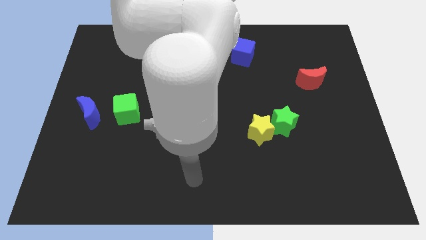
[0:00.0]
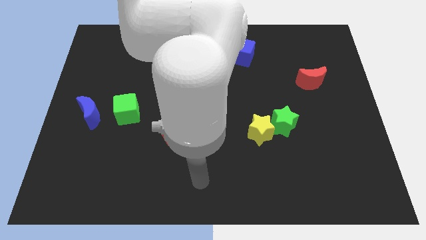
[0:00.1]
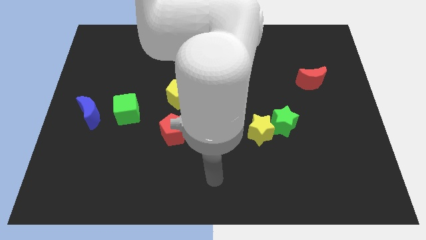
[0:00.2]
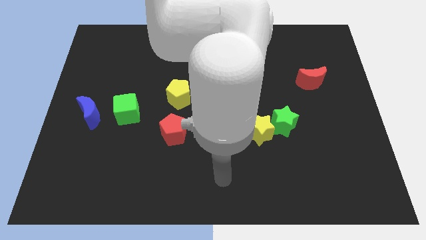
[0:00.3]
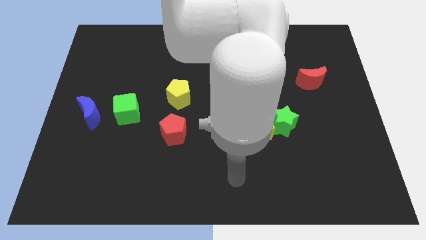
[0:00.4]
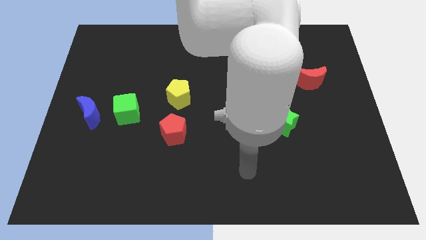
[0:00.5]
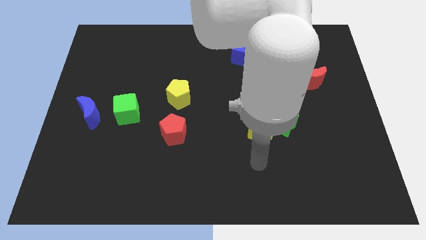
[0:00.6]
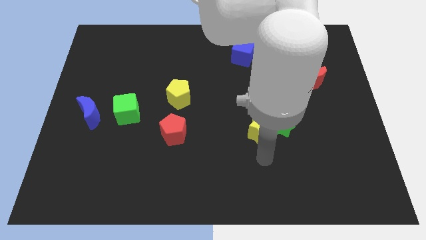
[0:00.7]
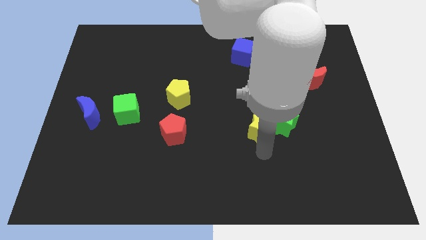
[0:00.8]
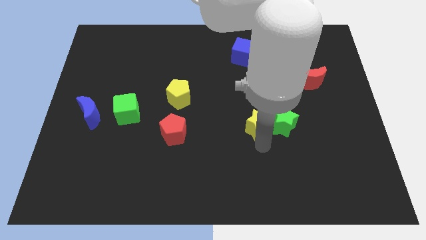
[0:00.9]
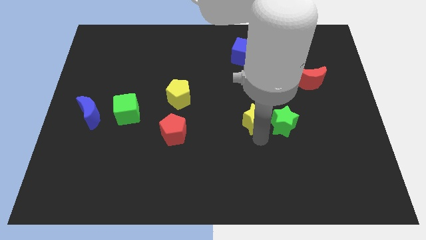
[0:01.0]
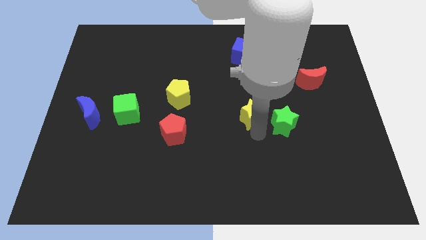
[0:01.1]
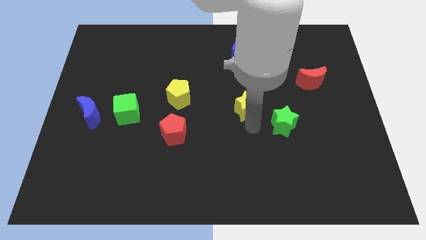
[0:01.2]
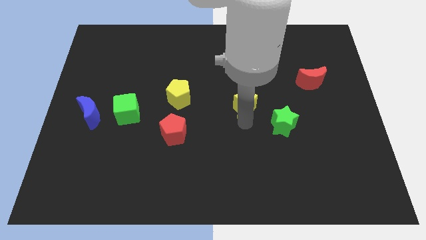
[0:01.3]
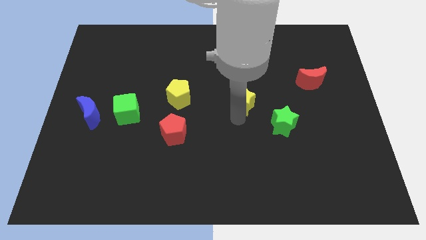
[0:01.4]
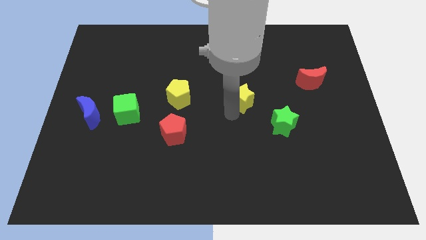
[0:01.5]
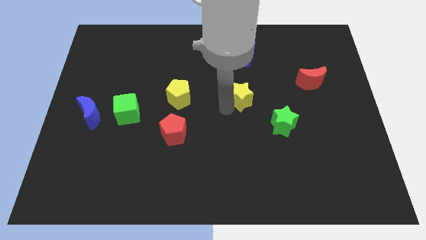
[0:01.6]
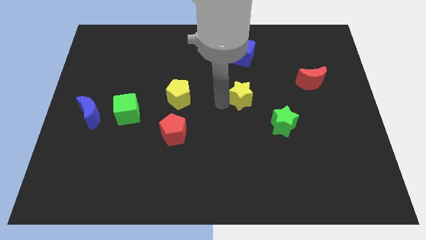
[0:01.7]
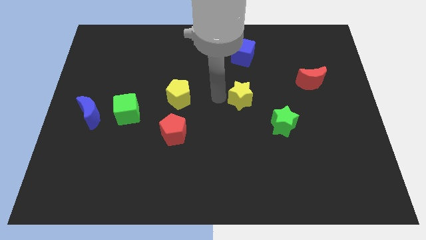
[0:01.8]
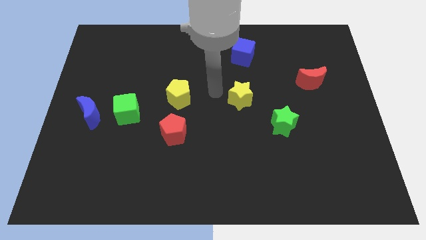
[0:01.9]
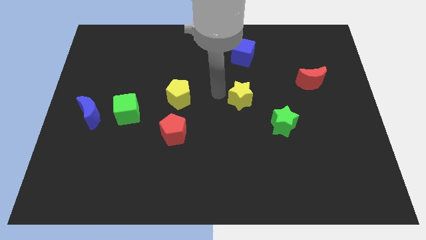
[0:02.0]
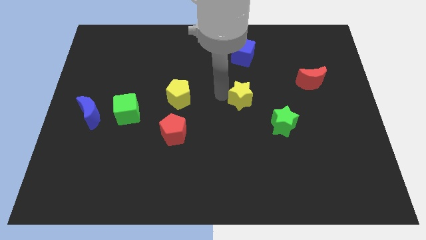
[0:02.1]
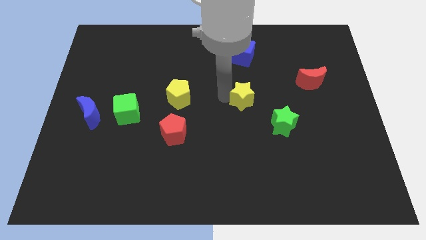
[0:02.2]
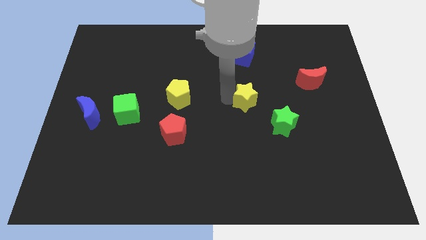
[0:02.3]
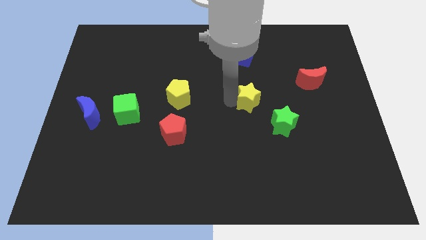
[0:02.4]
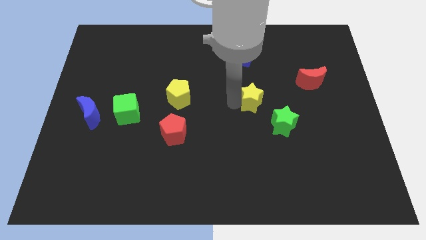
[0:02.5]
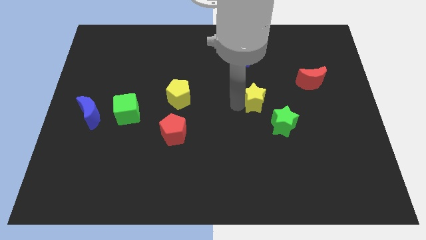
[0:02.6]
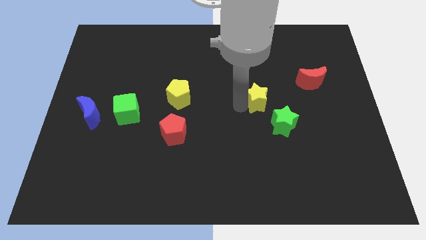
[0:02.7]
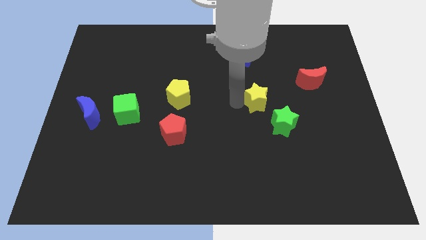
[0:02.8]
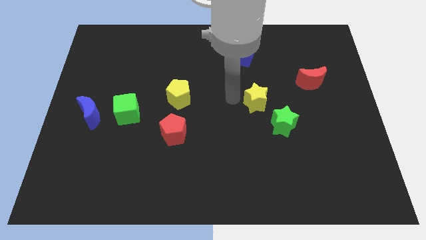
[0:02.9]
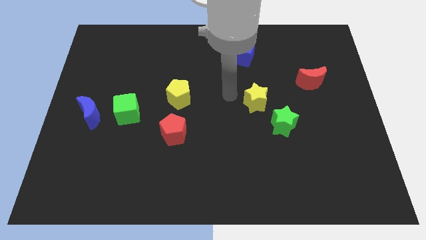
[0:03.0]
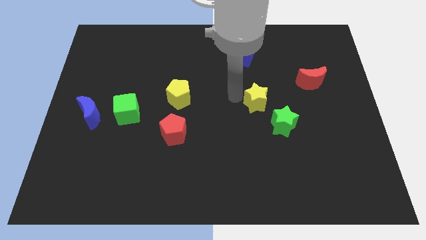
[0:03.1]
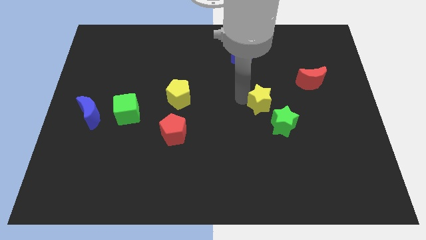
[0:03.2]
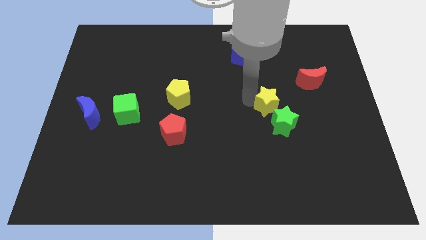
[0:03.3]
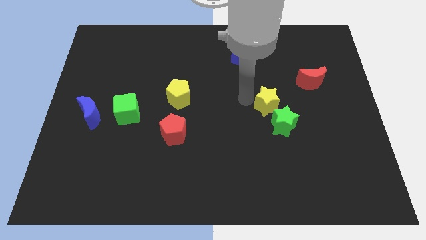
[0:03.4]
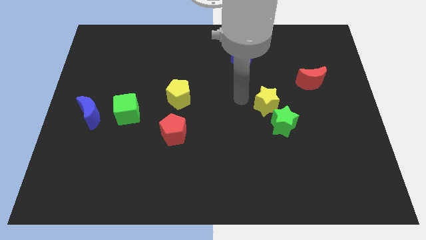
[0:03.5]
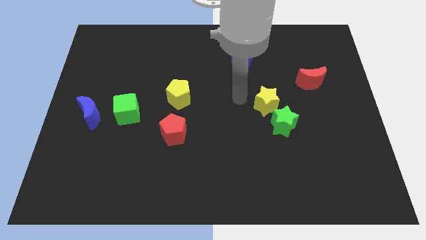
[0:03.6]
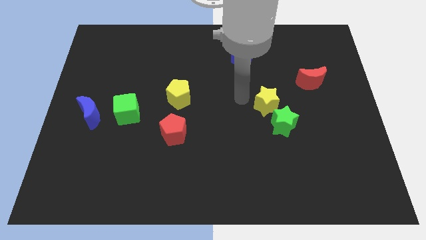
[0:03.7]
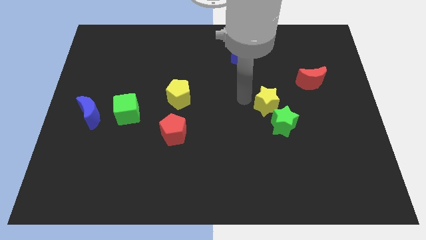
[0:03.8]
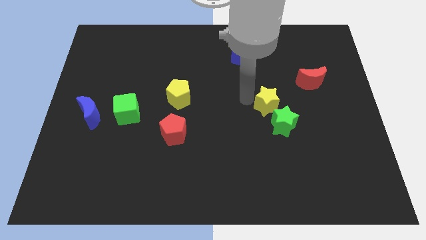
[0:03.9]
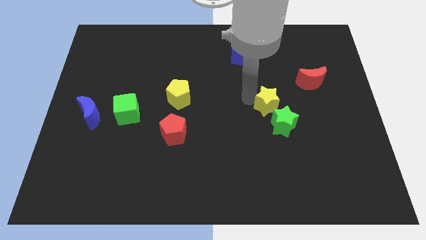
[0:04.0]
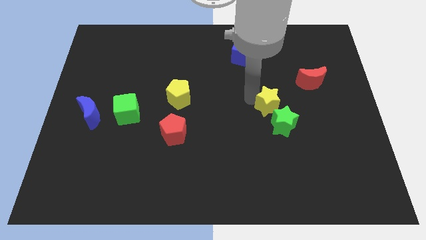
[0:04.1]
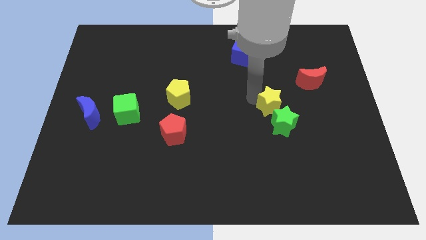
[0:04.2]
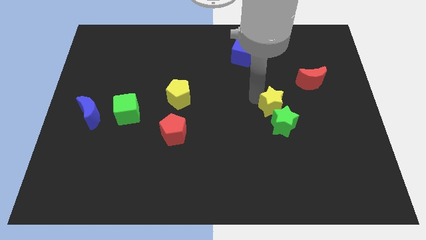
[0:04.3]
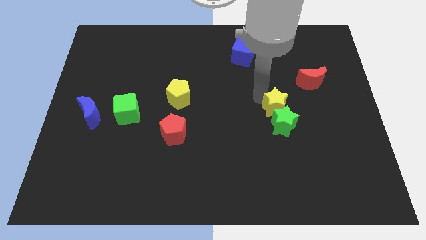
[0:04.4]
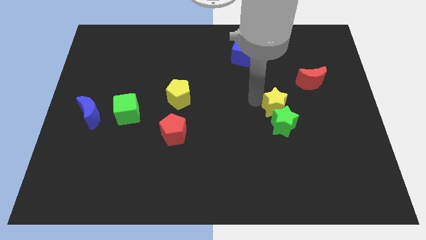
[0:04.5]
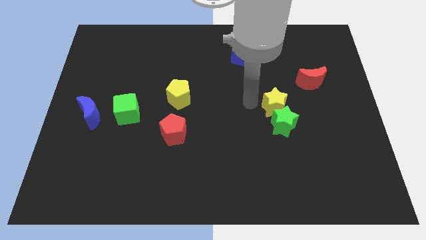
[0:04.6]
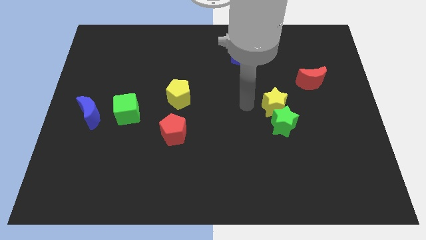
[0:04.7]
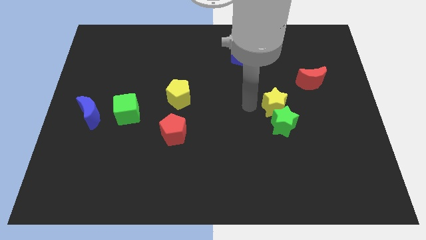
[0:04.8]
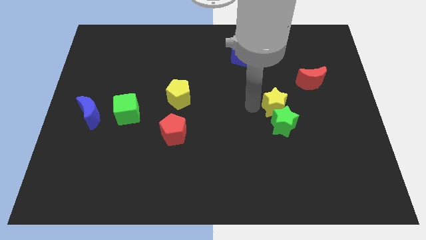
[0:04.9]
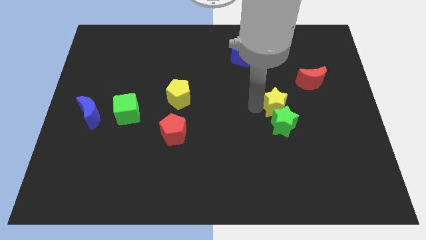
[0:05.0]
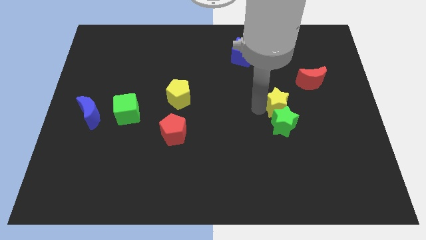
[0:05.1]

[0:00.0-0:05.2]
push the yellow star to the top right of the green star

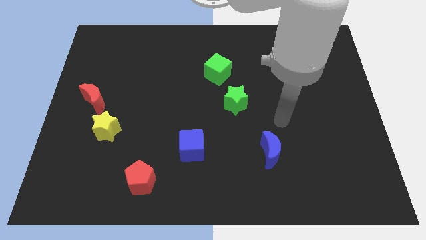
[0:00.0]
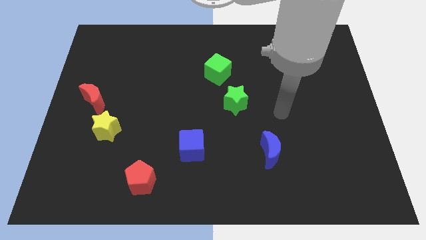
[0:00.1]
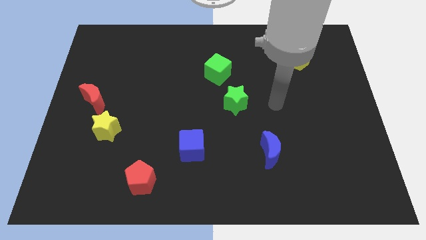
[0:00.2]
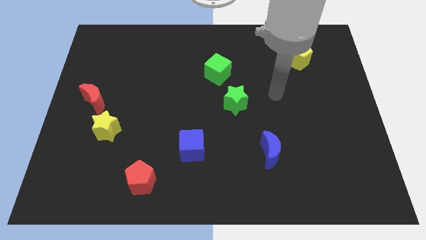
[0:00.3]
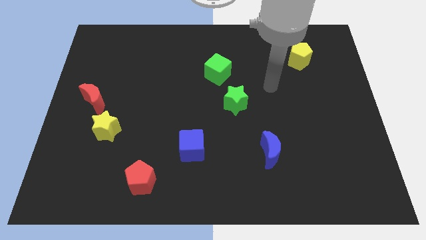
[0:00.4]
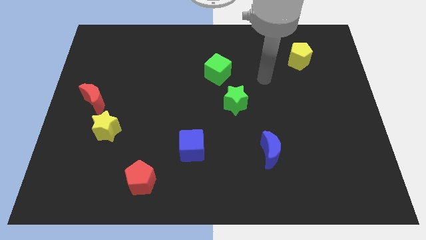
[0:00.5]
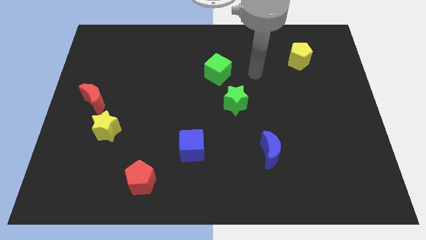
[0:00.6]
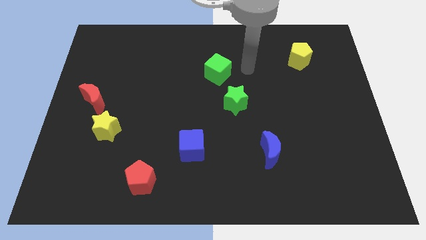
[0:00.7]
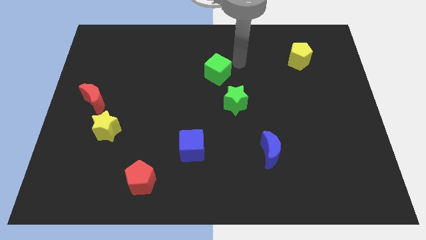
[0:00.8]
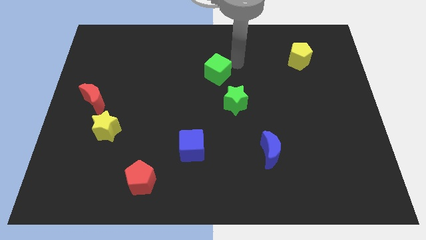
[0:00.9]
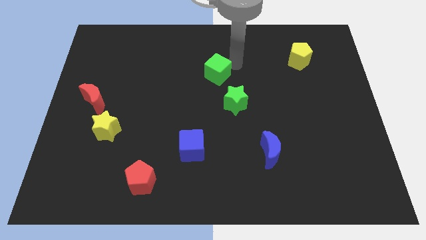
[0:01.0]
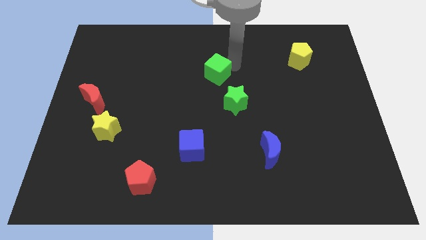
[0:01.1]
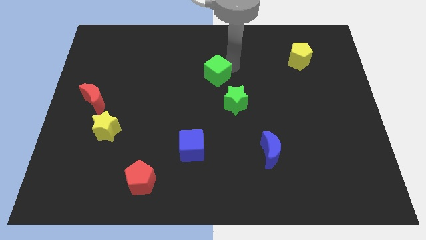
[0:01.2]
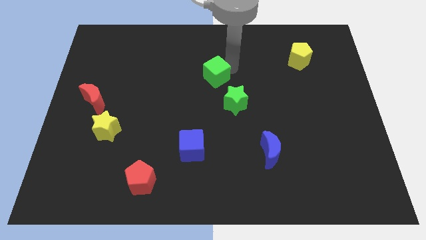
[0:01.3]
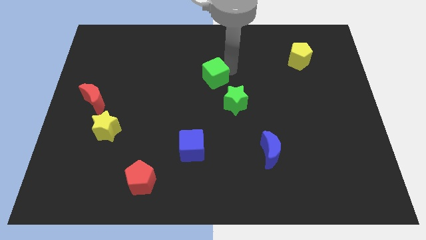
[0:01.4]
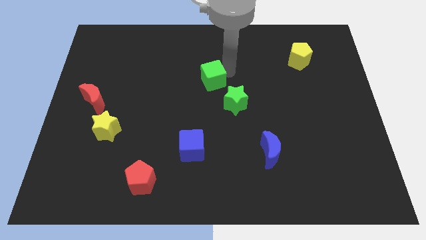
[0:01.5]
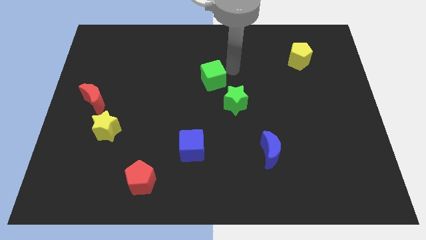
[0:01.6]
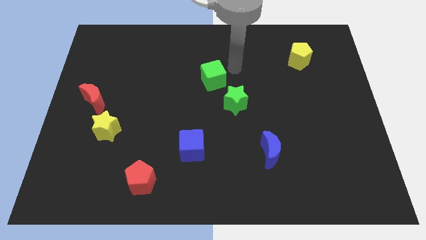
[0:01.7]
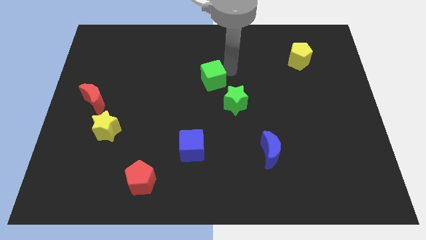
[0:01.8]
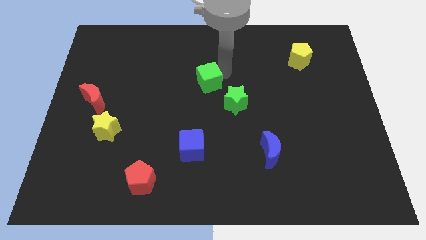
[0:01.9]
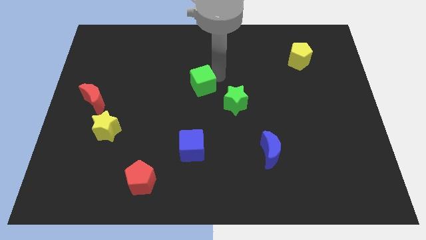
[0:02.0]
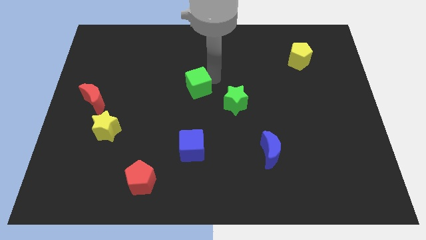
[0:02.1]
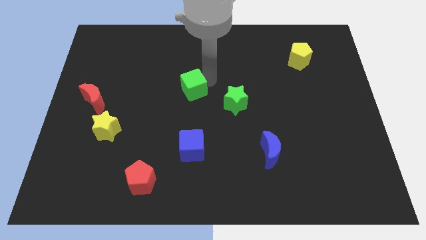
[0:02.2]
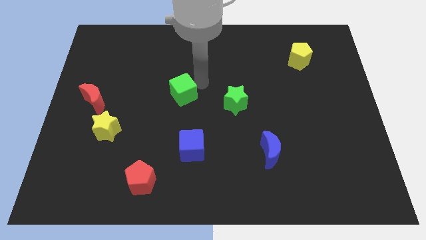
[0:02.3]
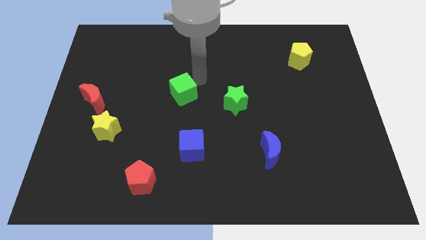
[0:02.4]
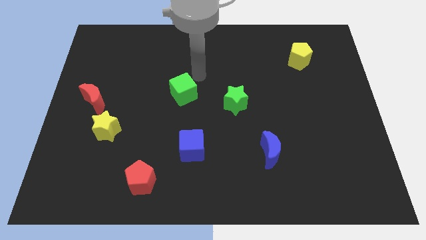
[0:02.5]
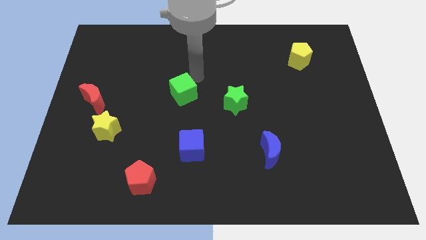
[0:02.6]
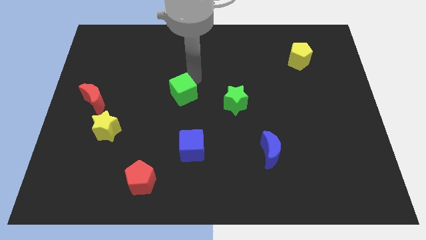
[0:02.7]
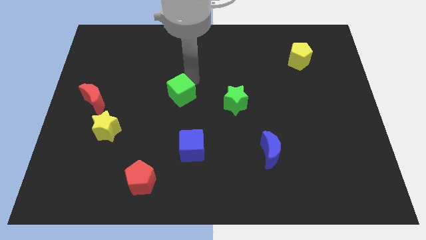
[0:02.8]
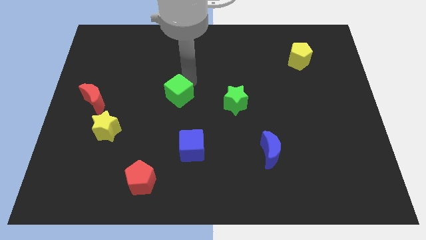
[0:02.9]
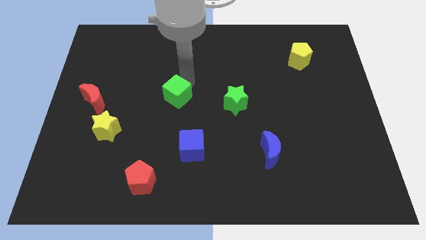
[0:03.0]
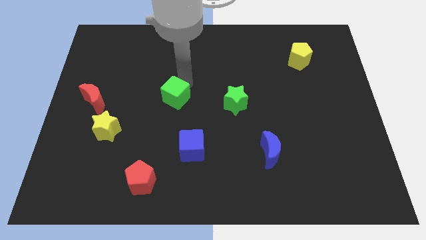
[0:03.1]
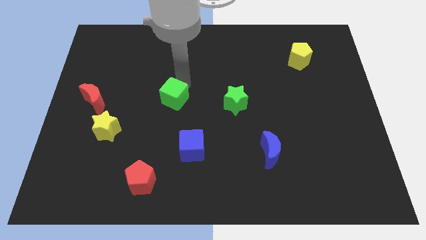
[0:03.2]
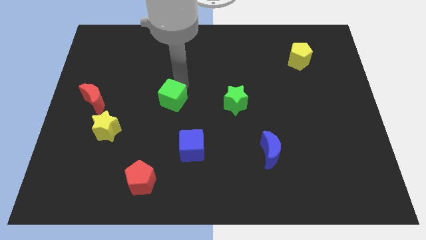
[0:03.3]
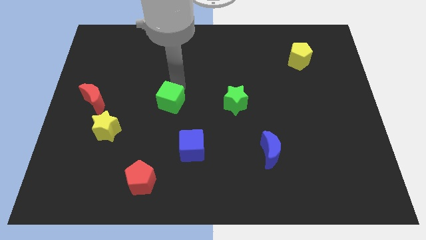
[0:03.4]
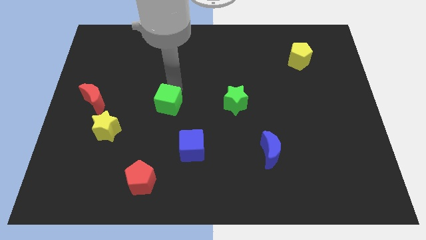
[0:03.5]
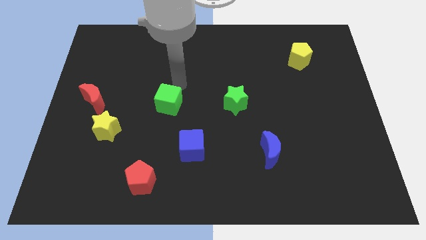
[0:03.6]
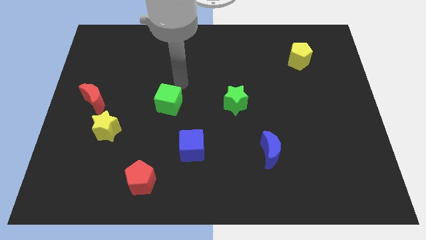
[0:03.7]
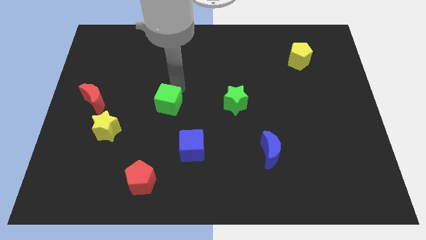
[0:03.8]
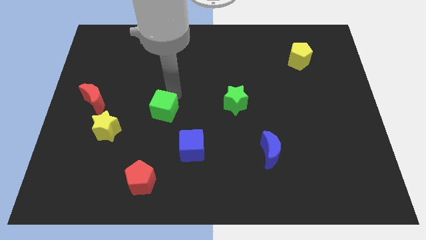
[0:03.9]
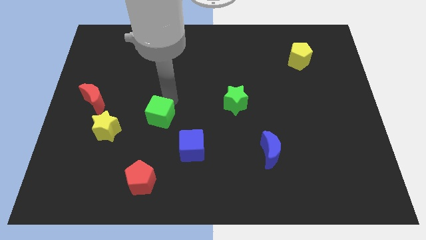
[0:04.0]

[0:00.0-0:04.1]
put the green cube to the right side of the yellow star
